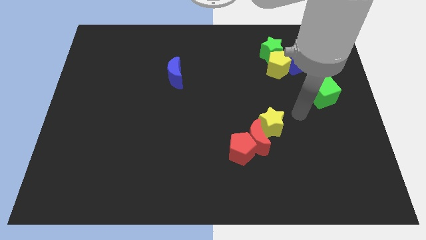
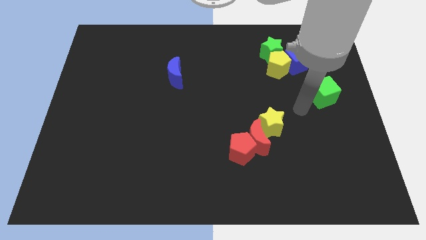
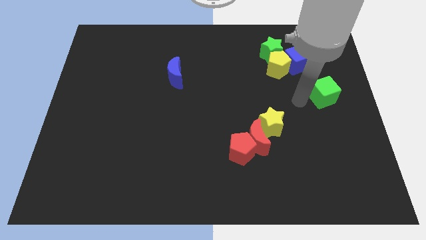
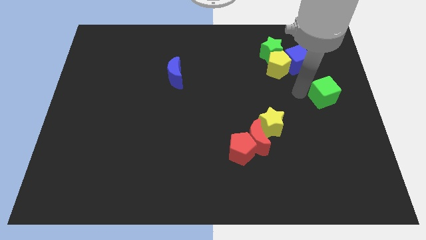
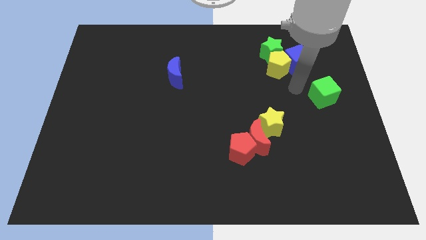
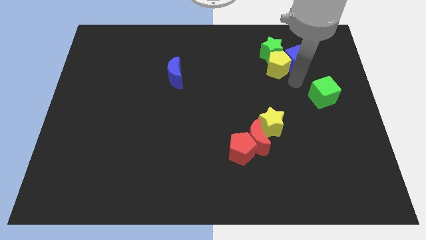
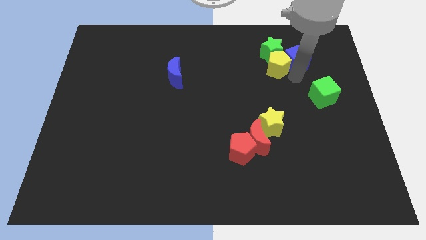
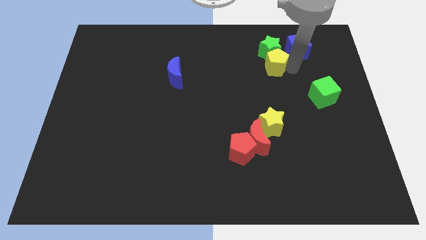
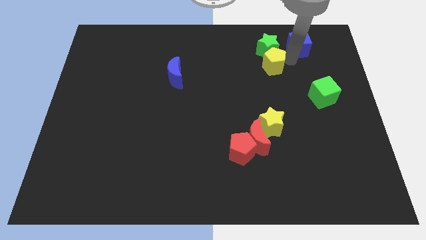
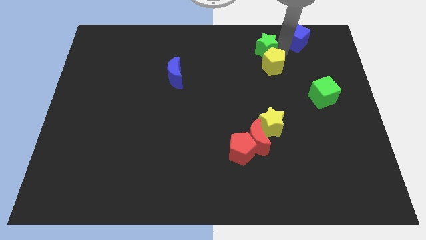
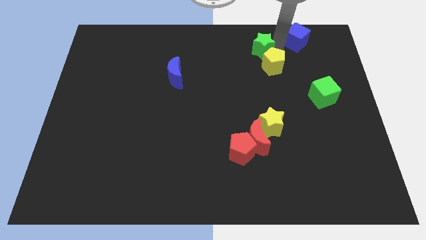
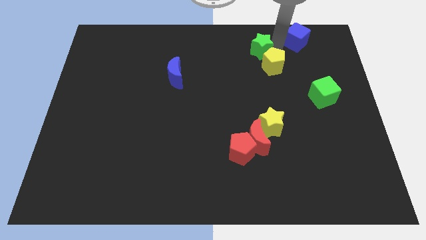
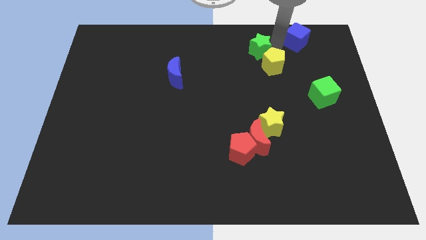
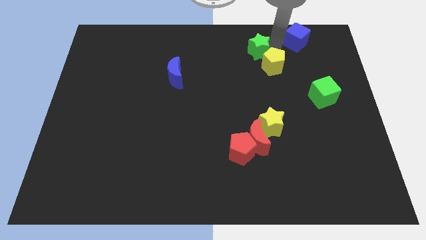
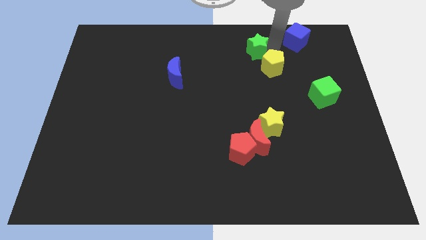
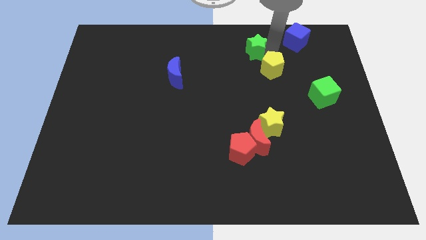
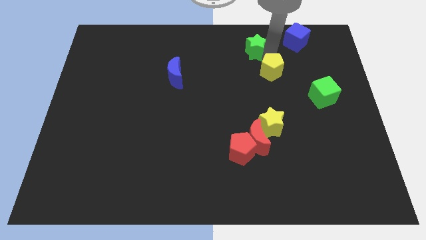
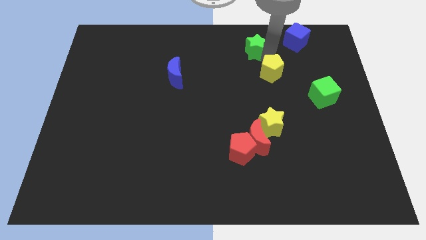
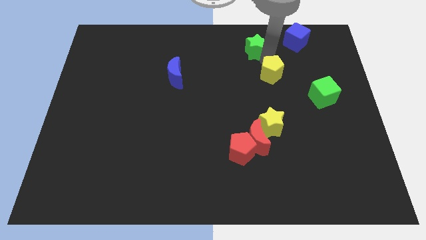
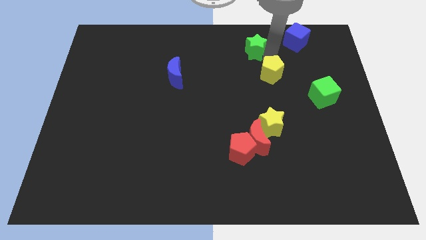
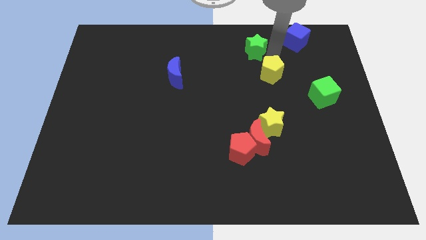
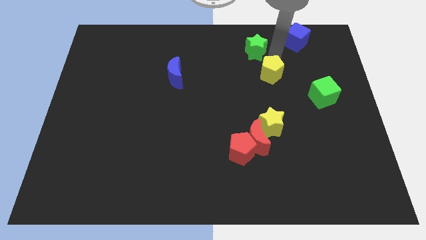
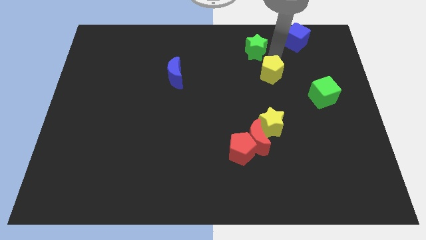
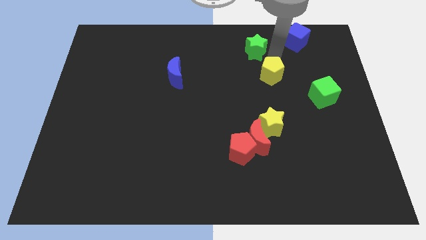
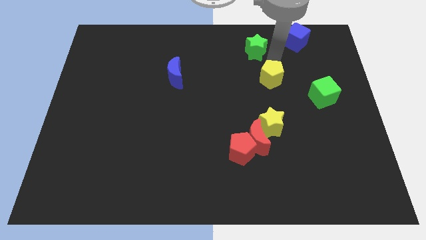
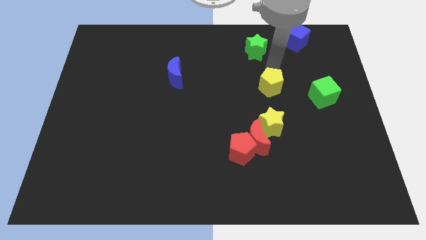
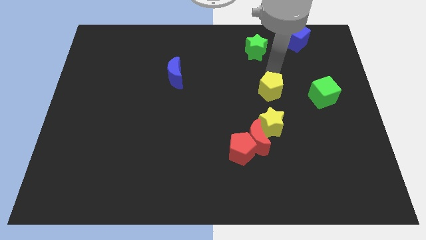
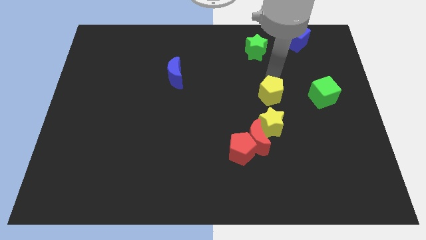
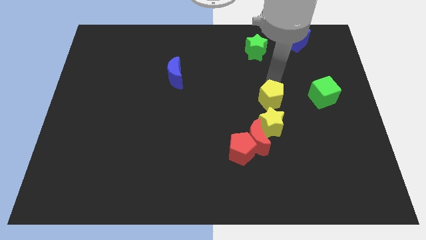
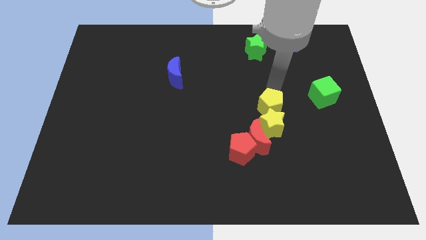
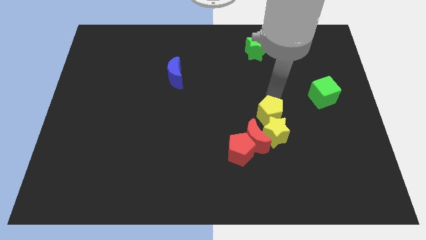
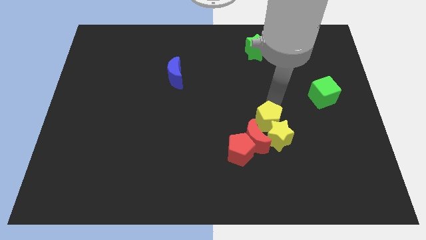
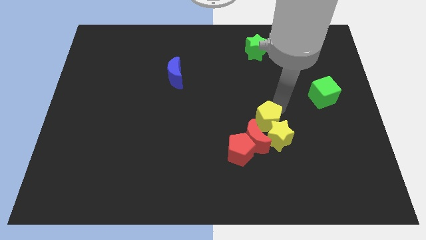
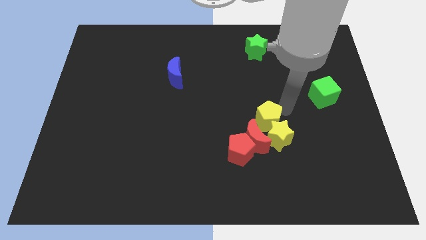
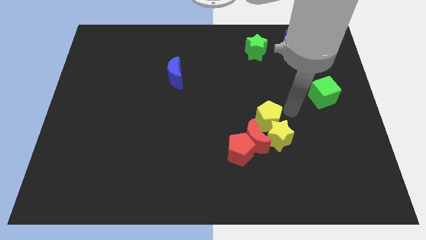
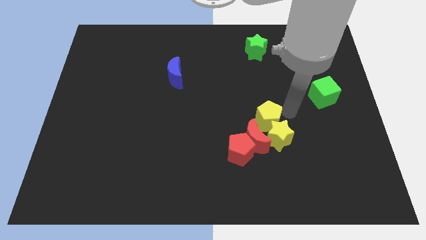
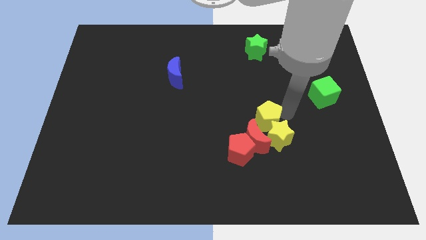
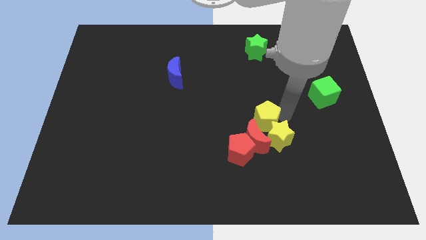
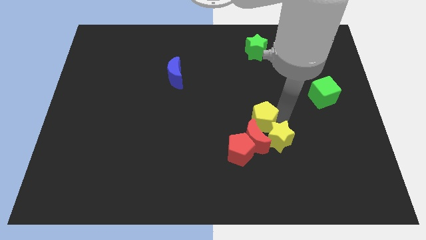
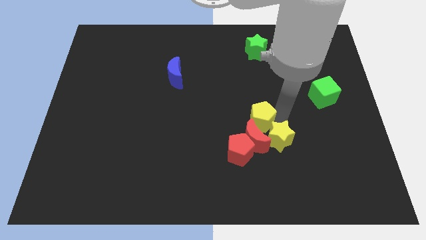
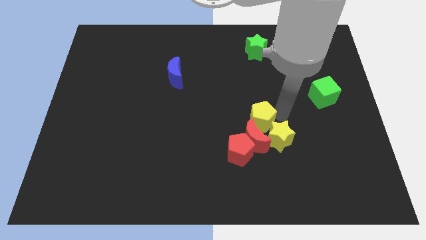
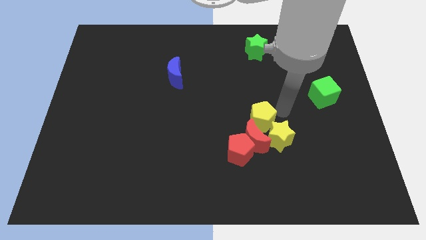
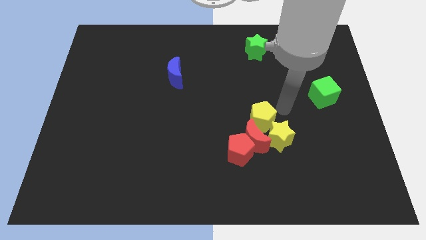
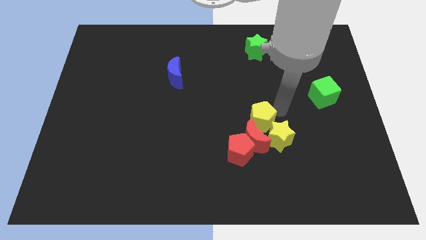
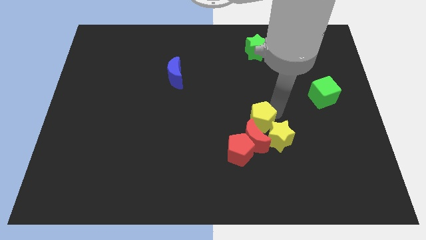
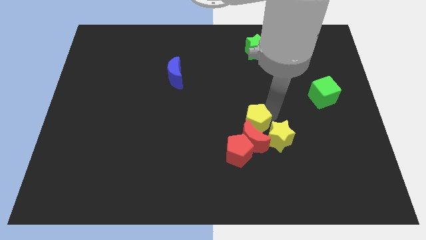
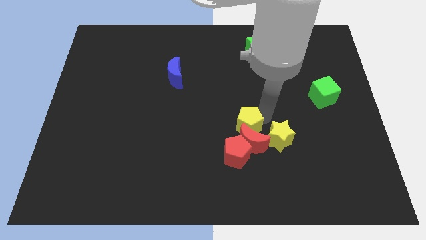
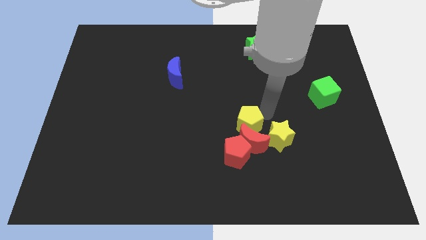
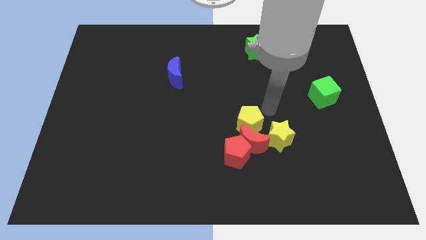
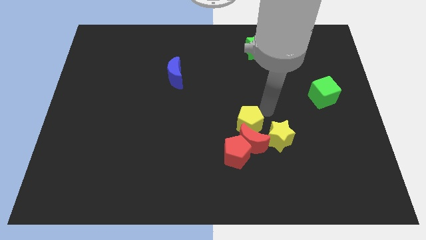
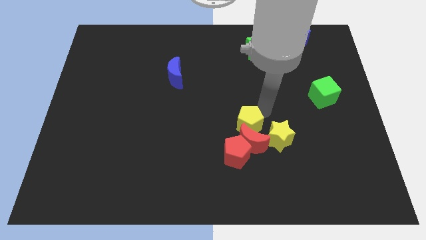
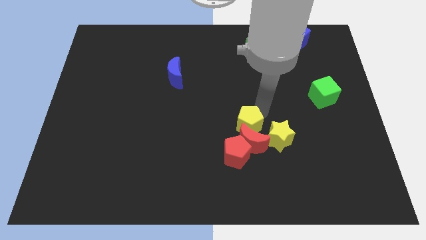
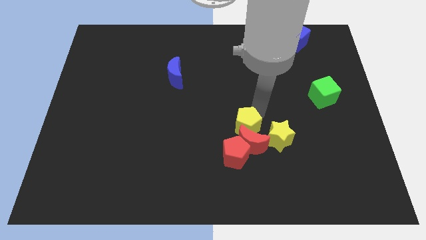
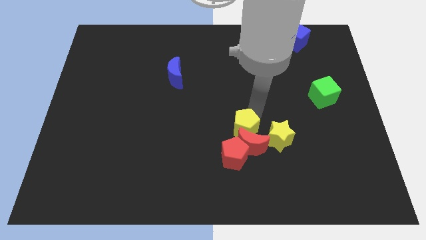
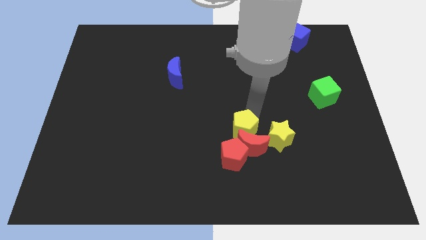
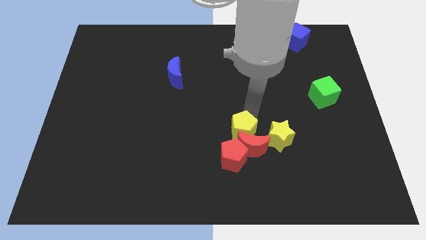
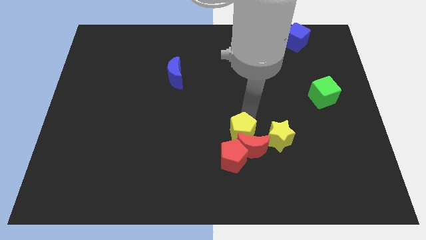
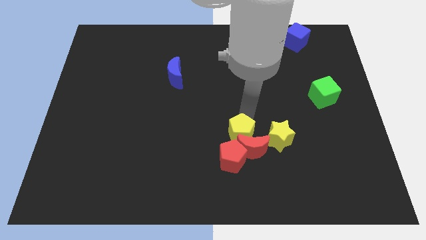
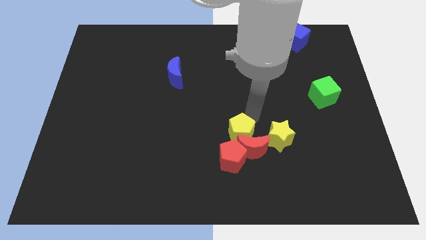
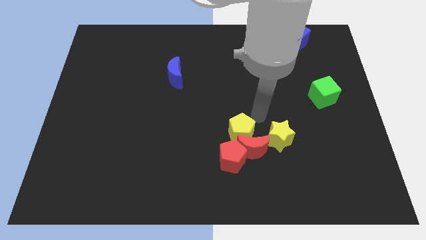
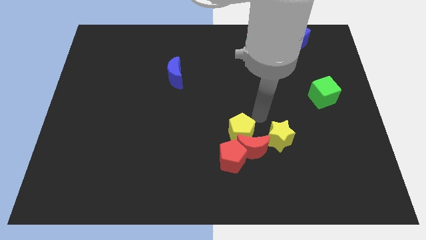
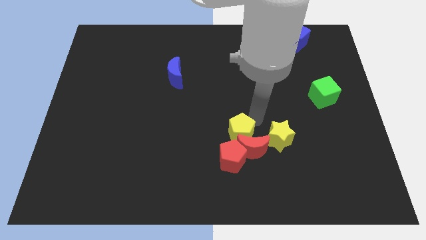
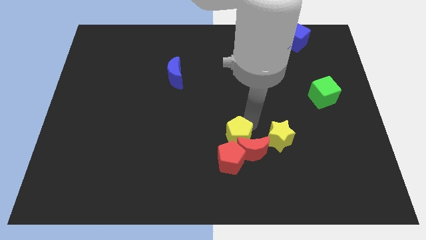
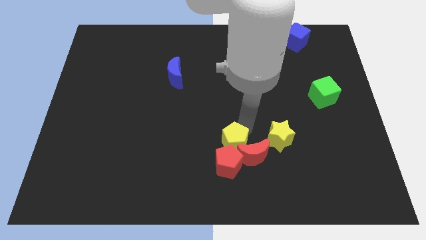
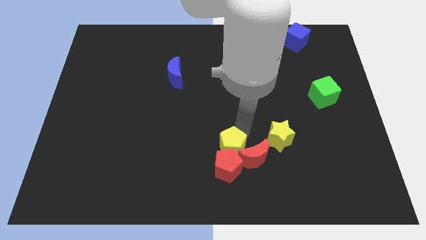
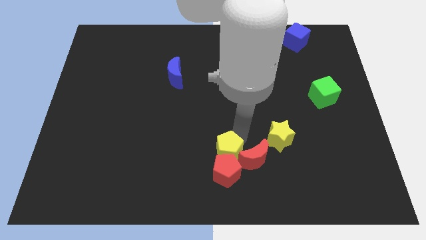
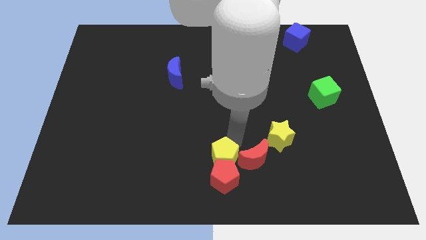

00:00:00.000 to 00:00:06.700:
slide the yellow pentagon to the bottom side
